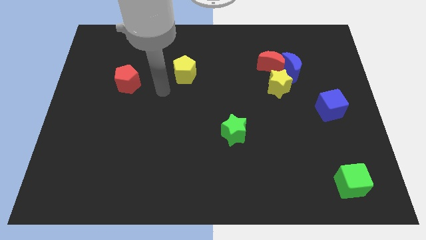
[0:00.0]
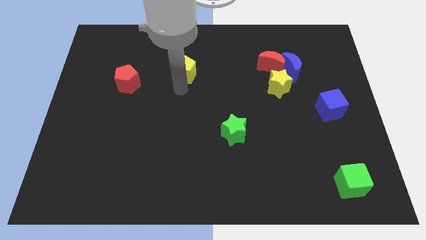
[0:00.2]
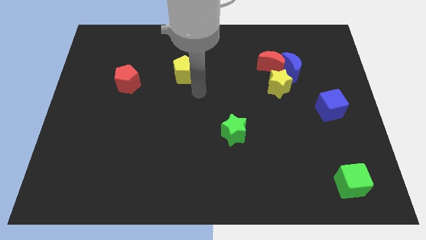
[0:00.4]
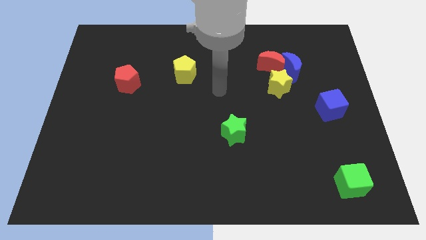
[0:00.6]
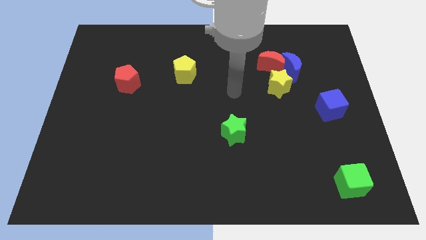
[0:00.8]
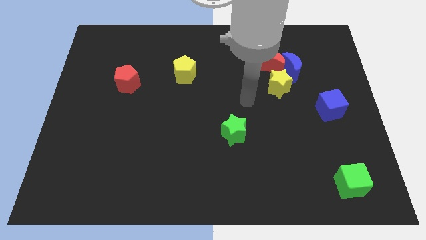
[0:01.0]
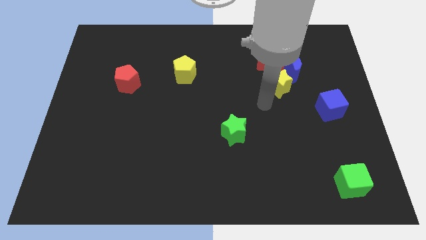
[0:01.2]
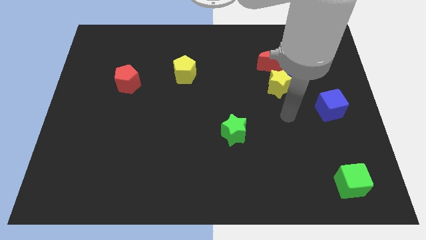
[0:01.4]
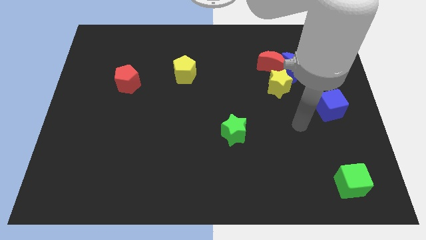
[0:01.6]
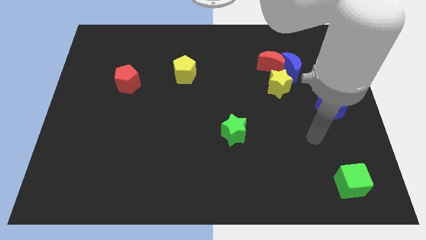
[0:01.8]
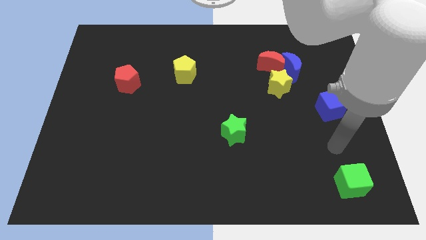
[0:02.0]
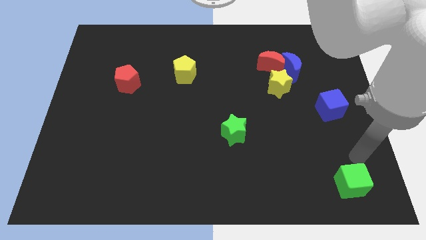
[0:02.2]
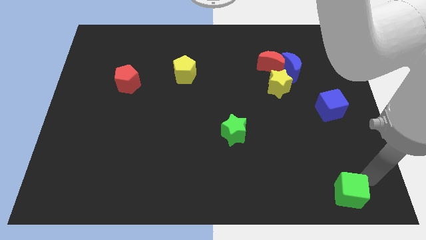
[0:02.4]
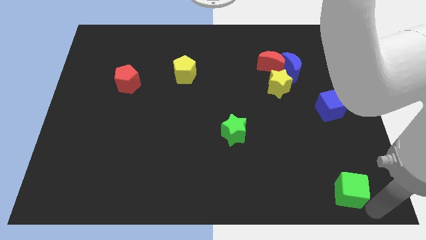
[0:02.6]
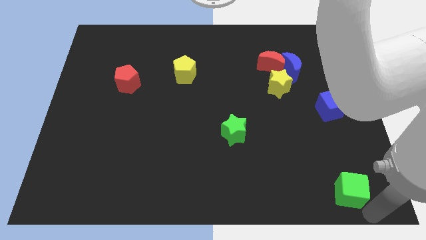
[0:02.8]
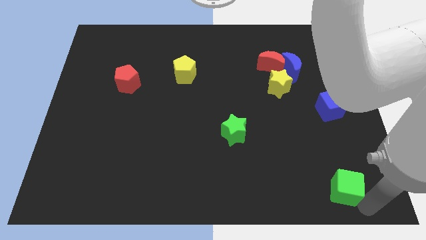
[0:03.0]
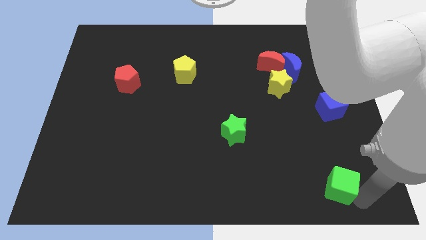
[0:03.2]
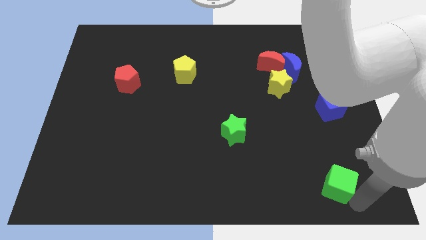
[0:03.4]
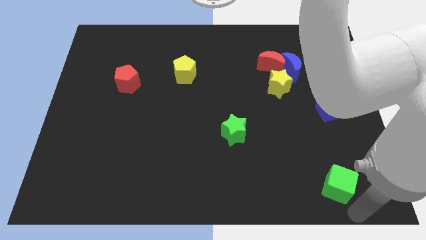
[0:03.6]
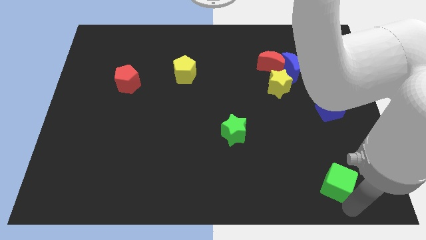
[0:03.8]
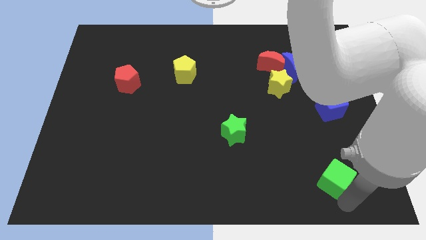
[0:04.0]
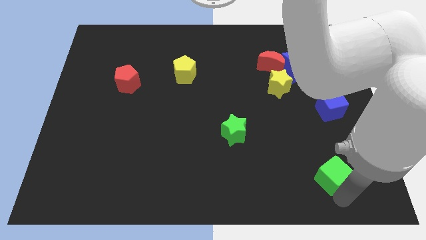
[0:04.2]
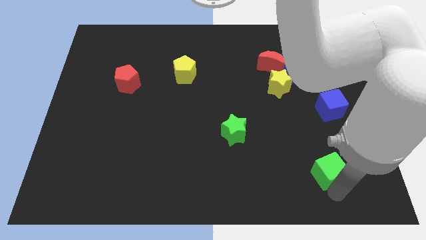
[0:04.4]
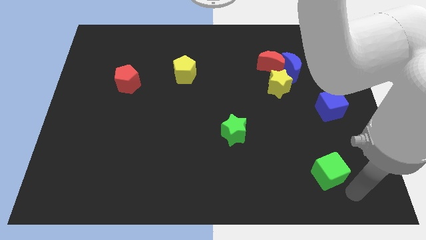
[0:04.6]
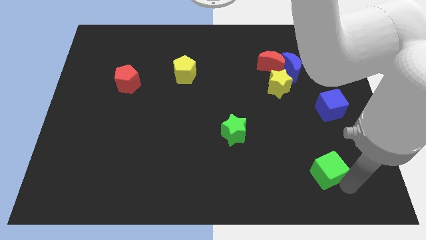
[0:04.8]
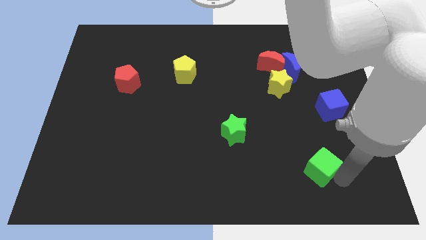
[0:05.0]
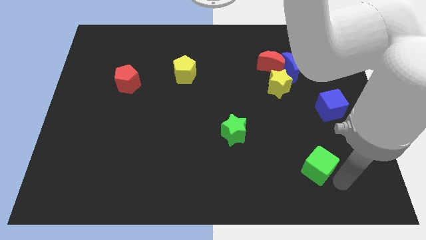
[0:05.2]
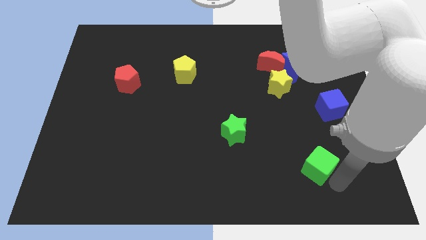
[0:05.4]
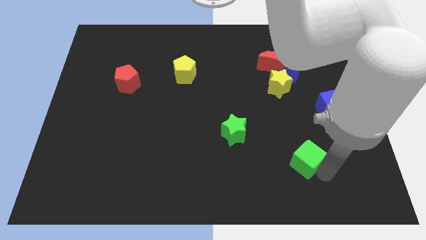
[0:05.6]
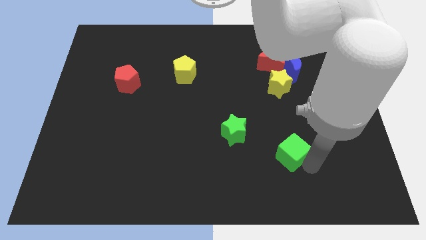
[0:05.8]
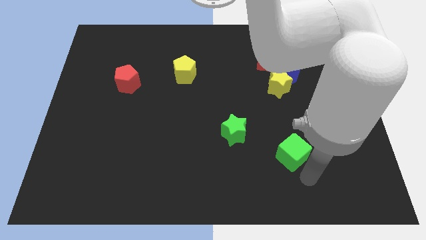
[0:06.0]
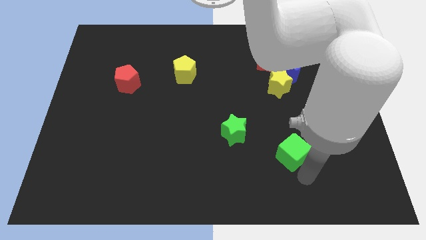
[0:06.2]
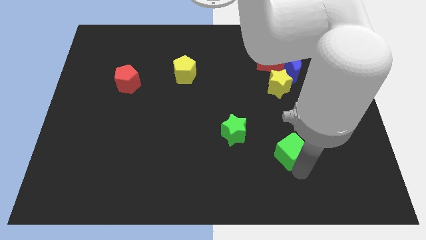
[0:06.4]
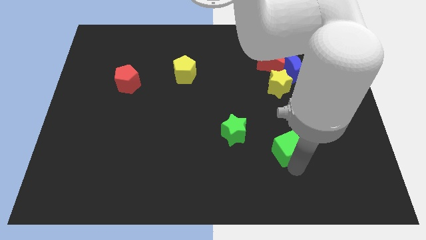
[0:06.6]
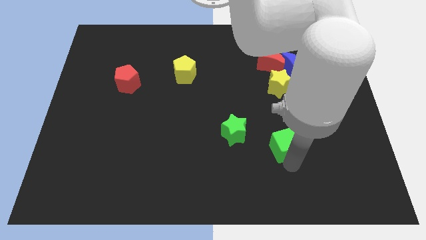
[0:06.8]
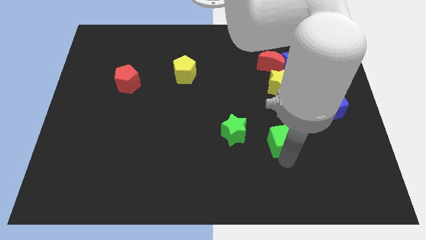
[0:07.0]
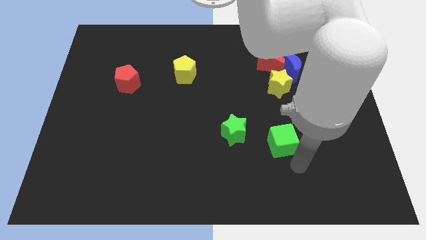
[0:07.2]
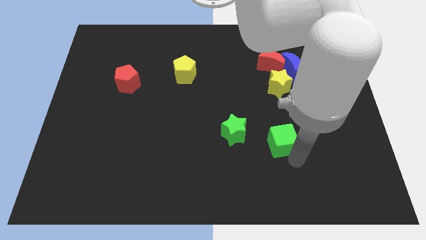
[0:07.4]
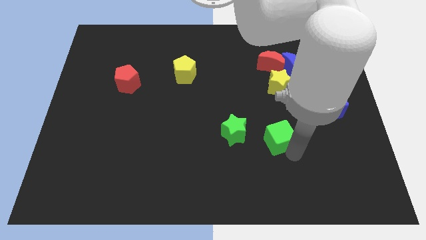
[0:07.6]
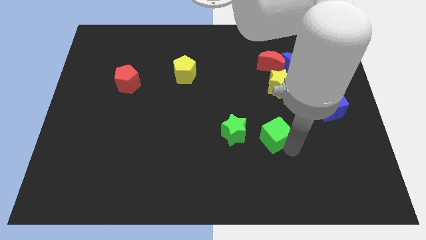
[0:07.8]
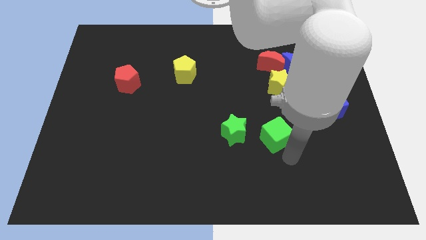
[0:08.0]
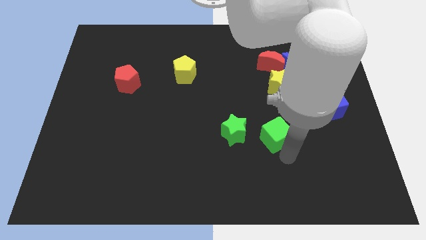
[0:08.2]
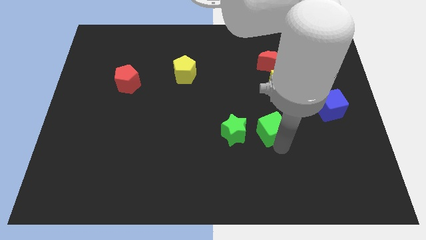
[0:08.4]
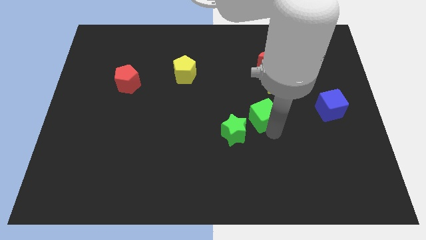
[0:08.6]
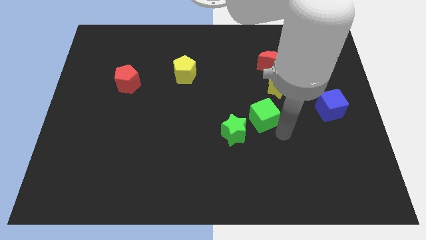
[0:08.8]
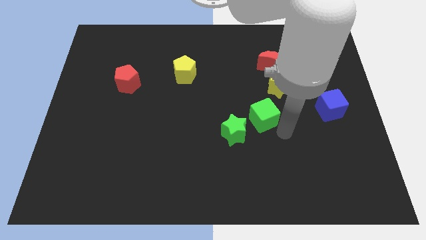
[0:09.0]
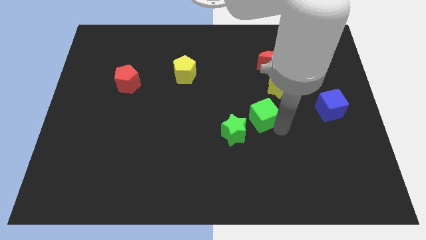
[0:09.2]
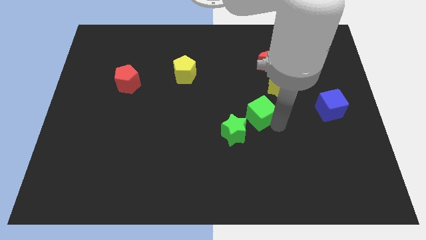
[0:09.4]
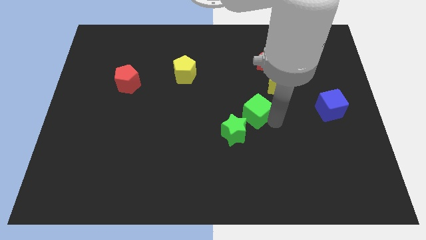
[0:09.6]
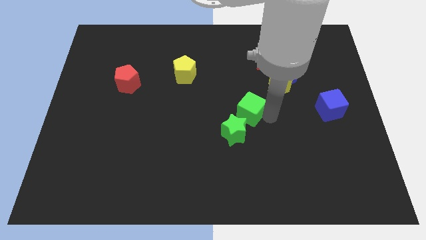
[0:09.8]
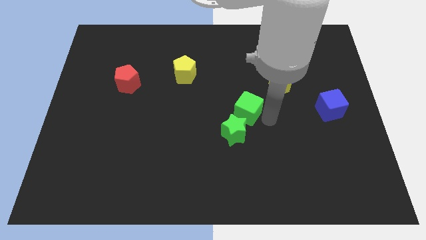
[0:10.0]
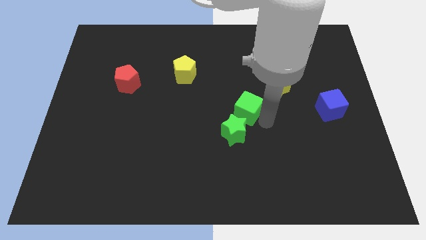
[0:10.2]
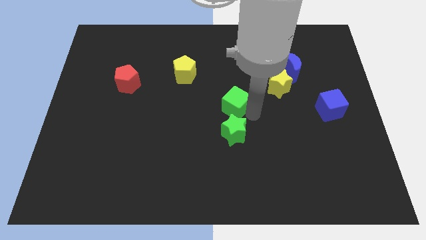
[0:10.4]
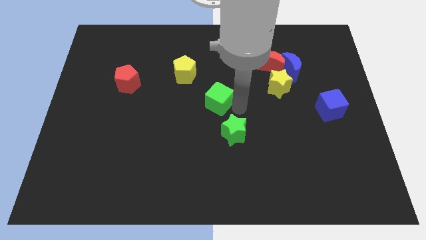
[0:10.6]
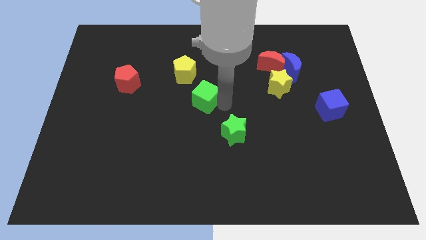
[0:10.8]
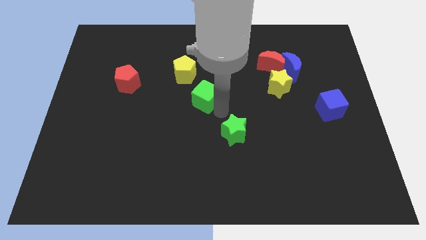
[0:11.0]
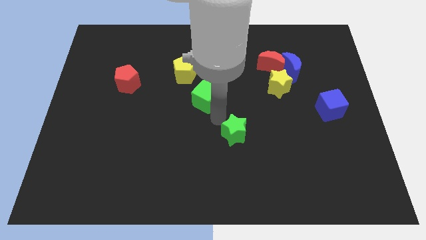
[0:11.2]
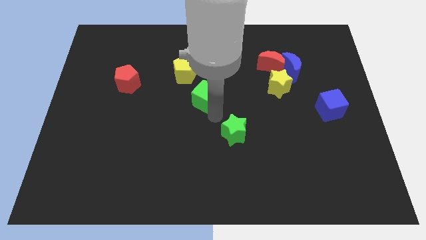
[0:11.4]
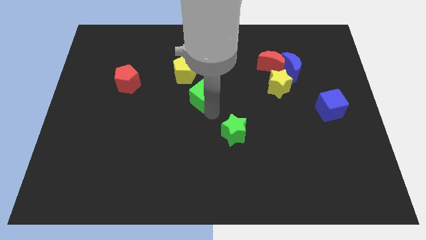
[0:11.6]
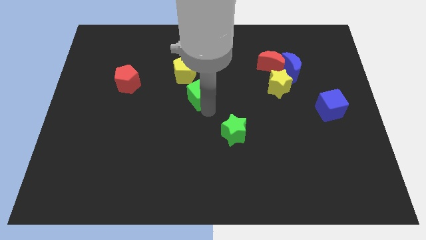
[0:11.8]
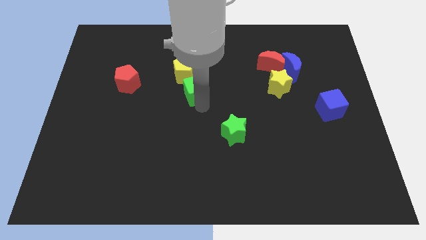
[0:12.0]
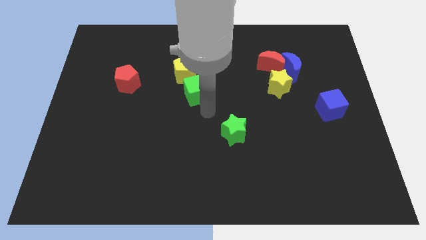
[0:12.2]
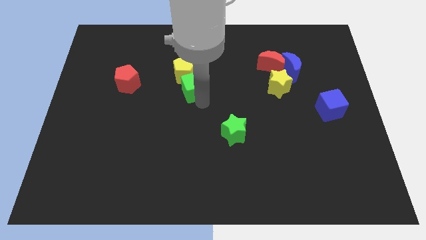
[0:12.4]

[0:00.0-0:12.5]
move the green cube towards the yellow pentagon

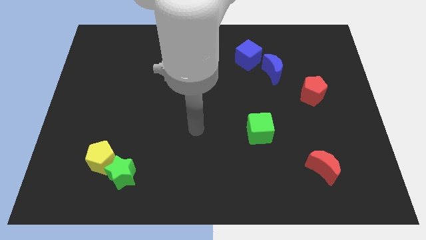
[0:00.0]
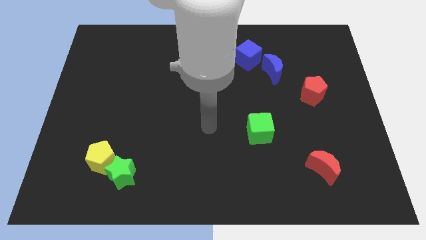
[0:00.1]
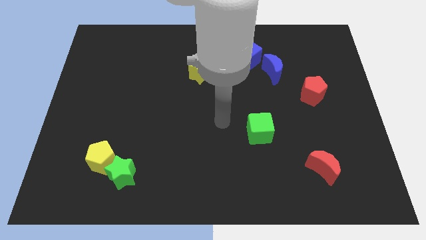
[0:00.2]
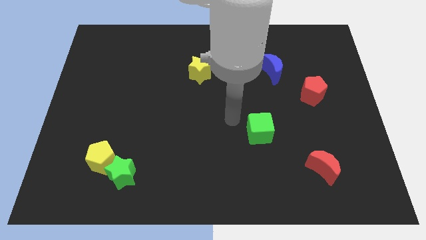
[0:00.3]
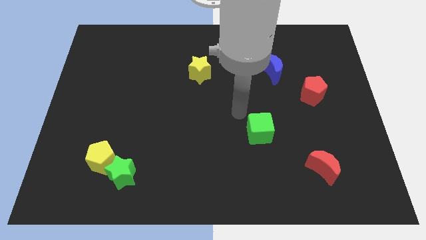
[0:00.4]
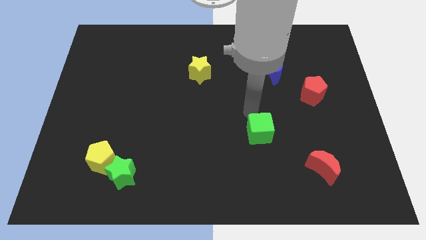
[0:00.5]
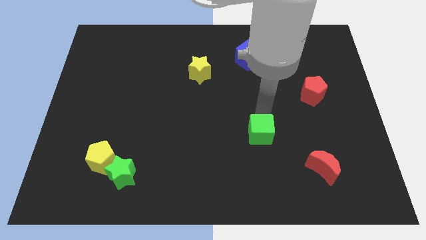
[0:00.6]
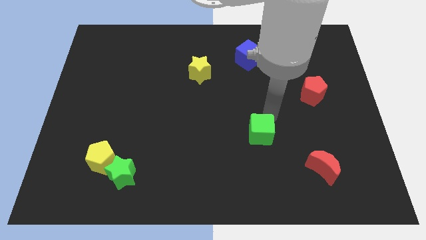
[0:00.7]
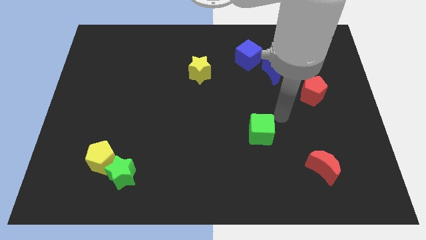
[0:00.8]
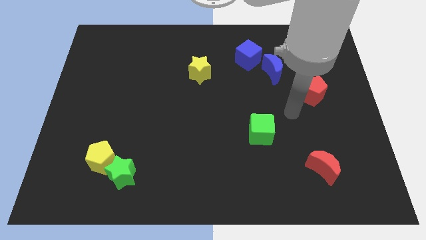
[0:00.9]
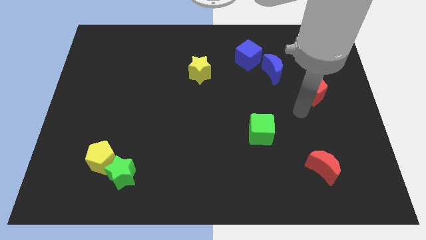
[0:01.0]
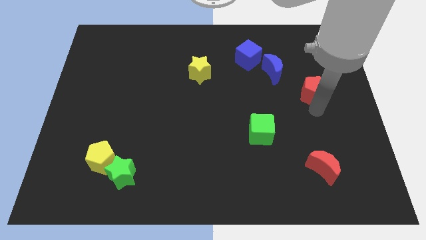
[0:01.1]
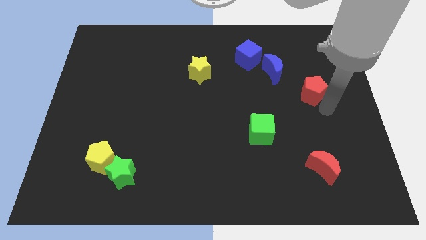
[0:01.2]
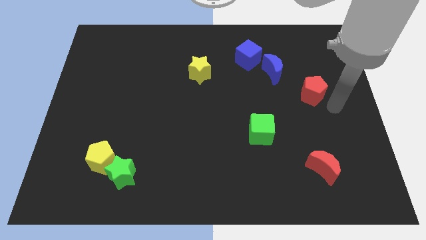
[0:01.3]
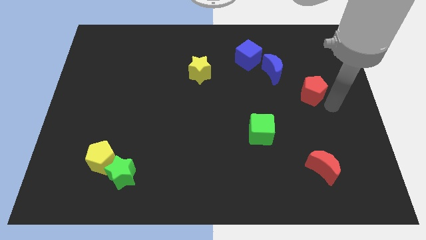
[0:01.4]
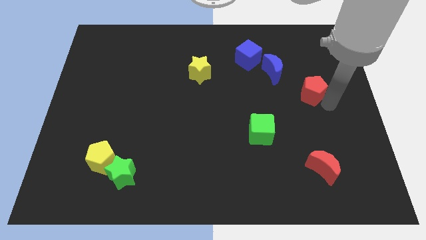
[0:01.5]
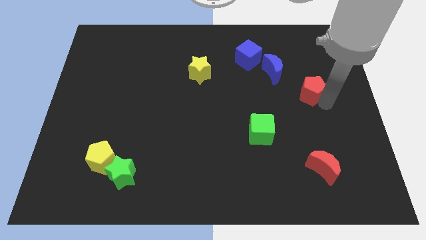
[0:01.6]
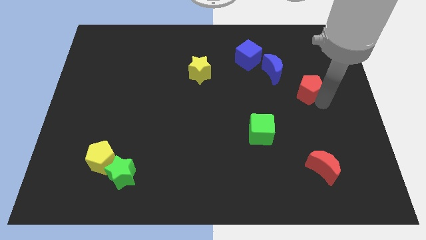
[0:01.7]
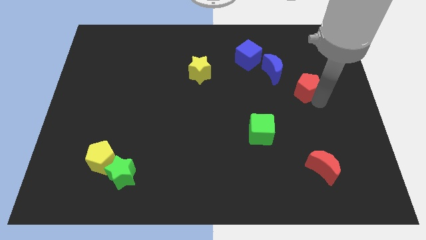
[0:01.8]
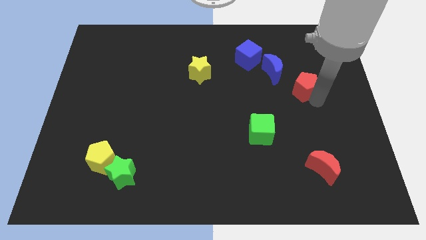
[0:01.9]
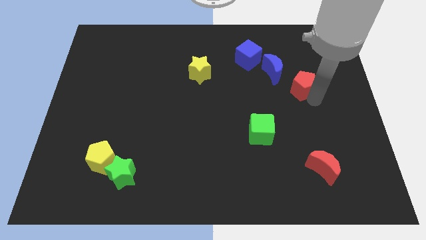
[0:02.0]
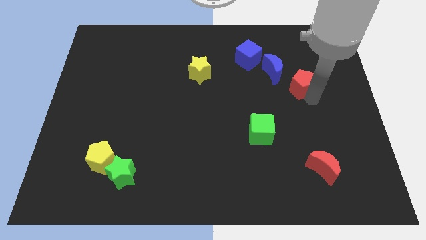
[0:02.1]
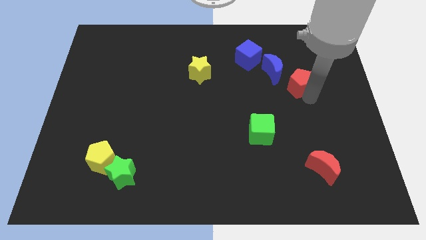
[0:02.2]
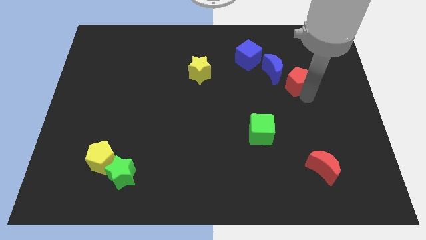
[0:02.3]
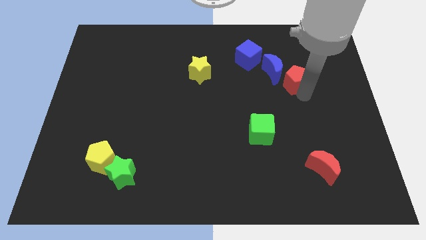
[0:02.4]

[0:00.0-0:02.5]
move the red pentagon next to the blue moon
